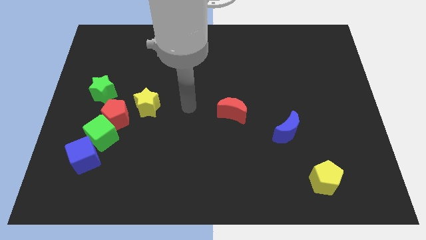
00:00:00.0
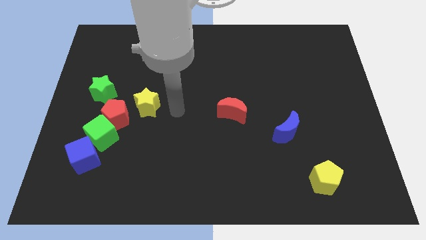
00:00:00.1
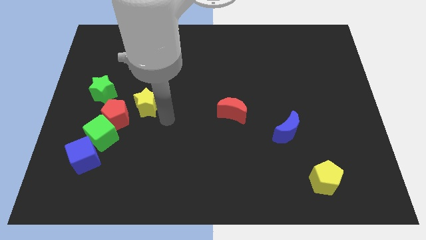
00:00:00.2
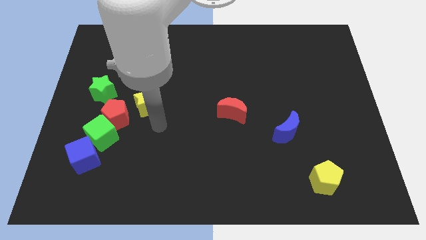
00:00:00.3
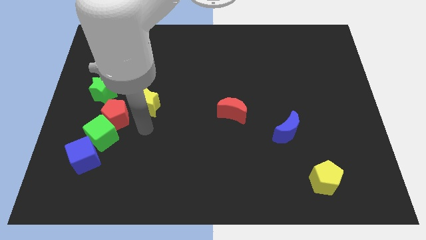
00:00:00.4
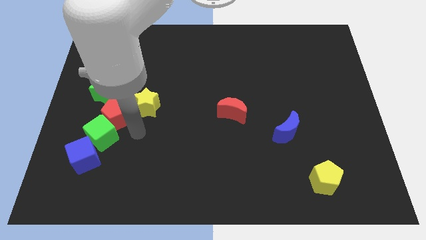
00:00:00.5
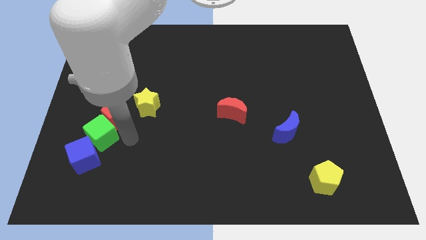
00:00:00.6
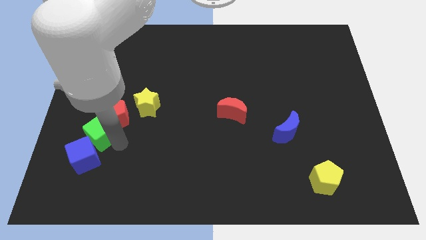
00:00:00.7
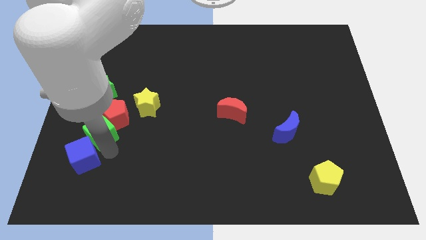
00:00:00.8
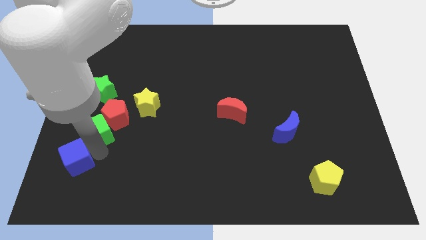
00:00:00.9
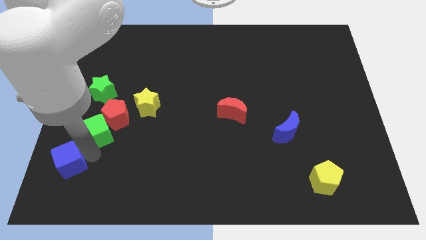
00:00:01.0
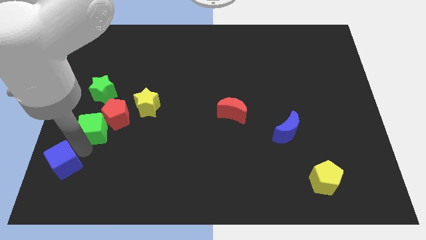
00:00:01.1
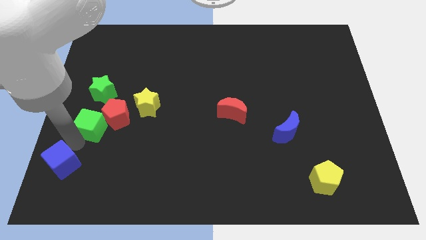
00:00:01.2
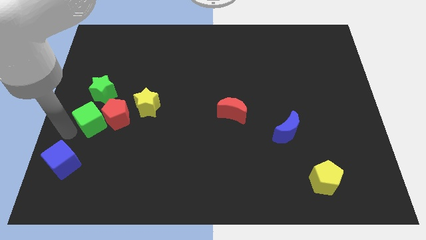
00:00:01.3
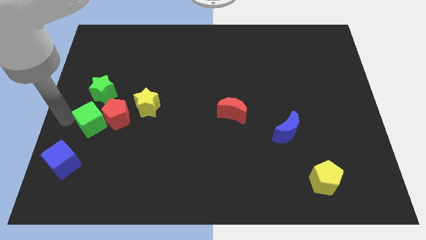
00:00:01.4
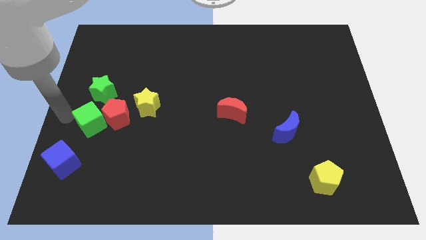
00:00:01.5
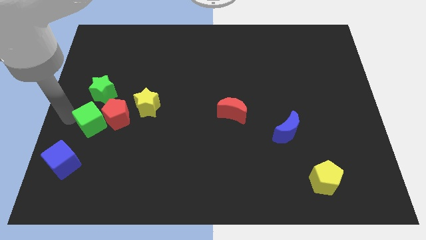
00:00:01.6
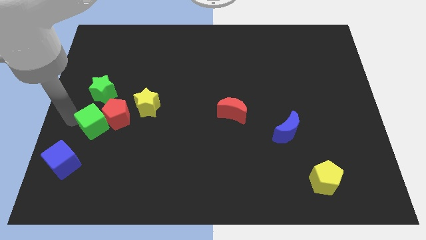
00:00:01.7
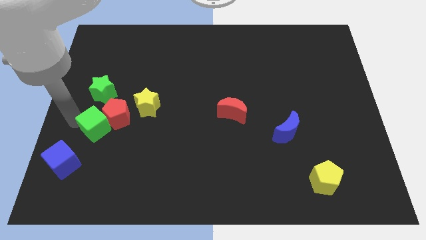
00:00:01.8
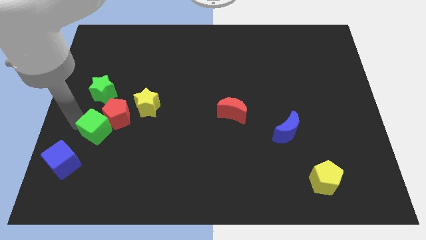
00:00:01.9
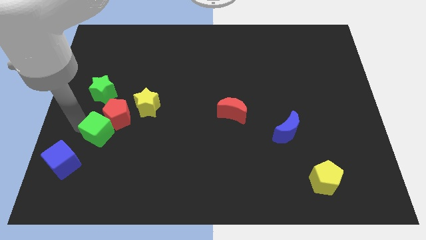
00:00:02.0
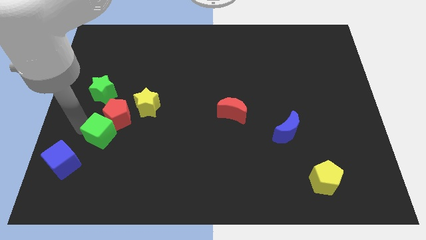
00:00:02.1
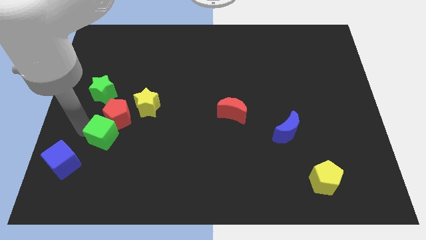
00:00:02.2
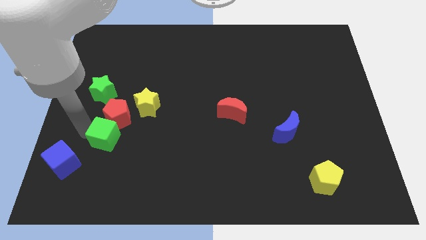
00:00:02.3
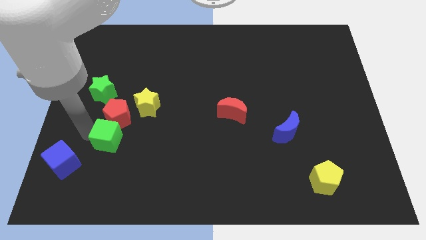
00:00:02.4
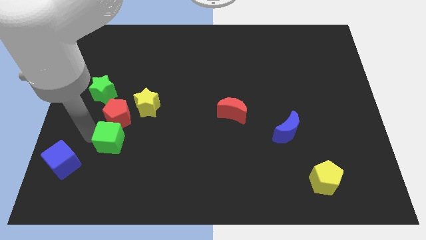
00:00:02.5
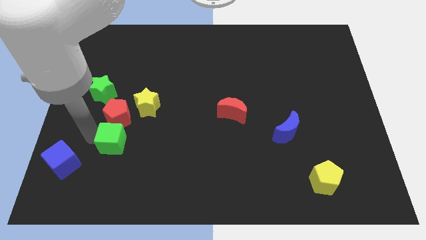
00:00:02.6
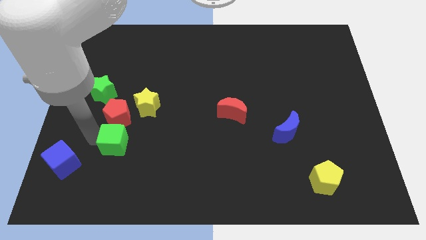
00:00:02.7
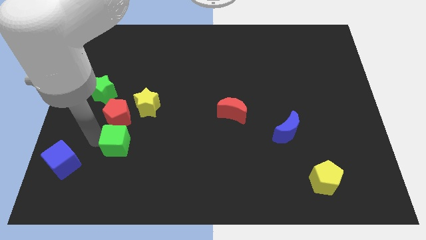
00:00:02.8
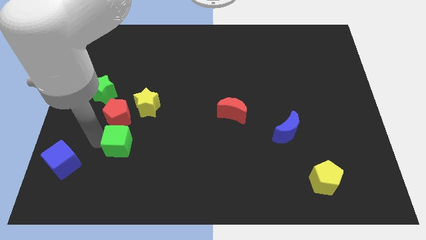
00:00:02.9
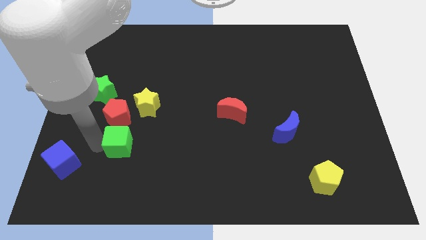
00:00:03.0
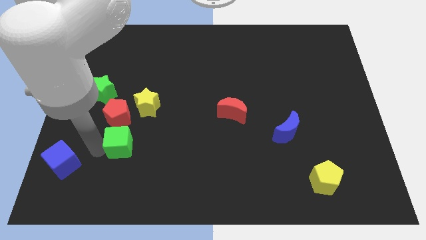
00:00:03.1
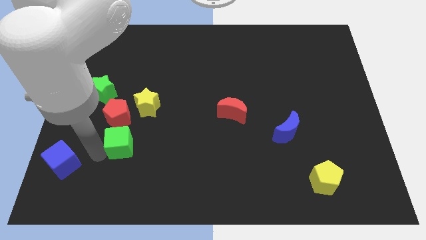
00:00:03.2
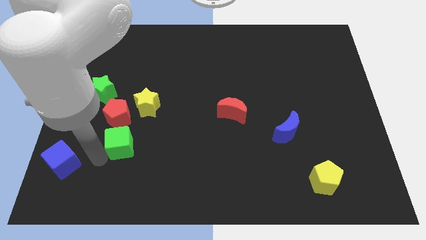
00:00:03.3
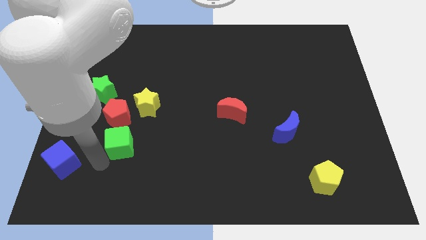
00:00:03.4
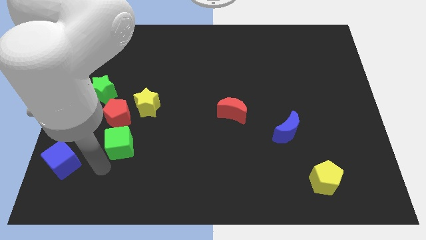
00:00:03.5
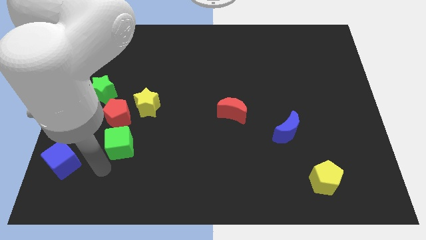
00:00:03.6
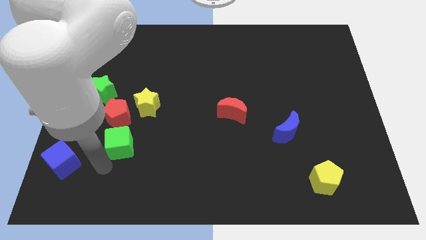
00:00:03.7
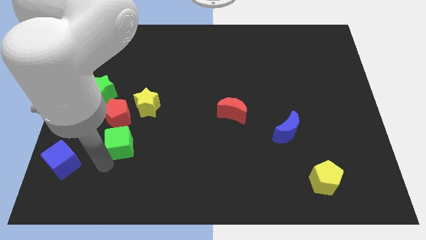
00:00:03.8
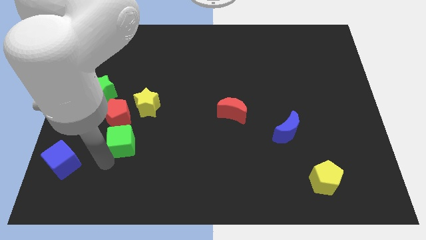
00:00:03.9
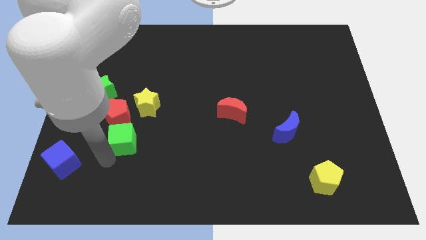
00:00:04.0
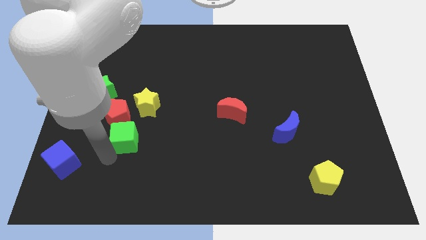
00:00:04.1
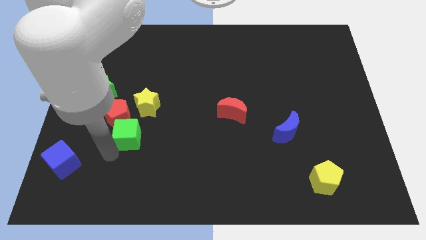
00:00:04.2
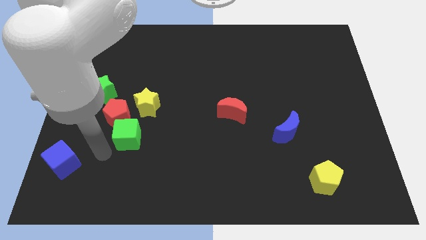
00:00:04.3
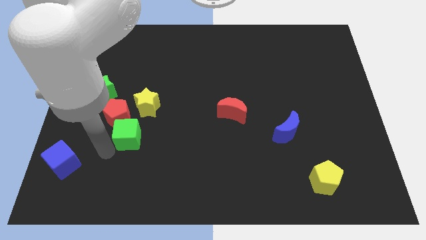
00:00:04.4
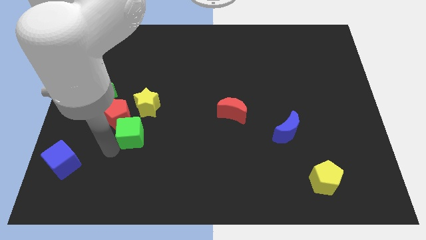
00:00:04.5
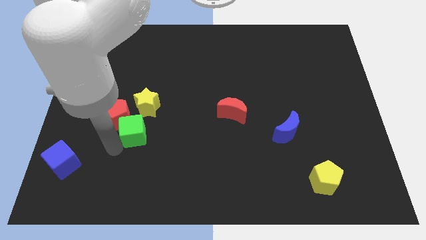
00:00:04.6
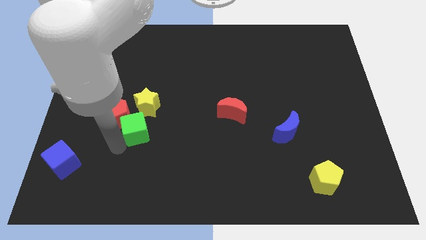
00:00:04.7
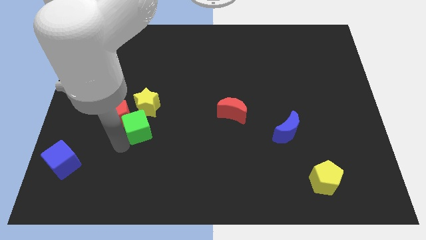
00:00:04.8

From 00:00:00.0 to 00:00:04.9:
move the green cube away from the red pentagon and blue cube

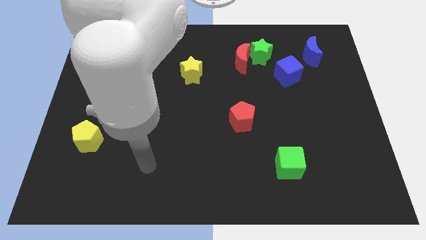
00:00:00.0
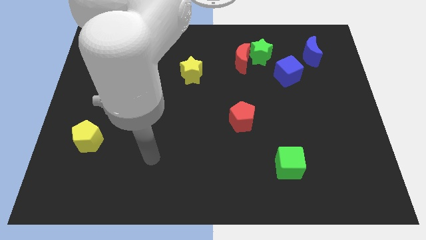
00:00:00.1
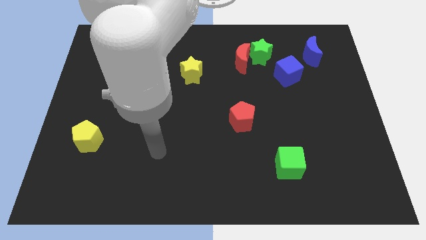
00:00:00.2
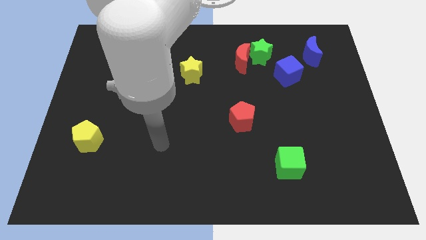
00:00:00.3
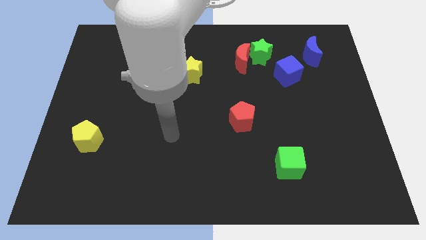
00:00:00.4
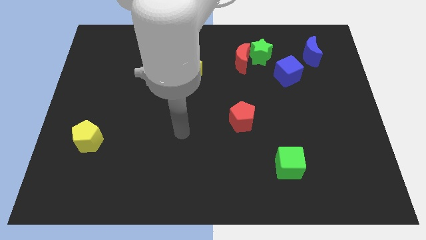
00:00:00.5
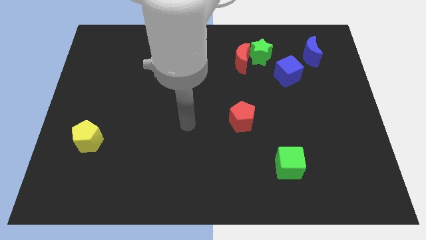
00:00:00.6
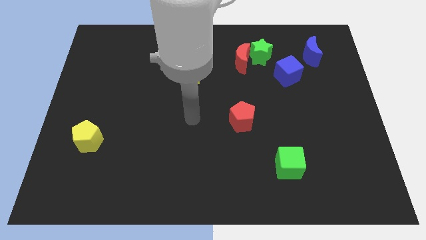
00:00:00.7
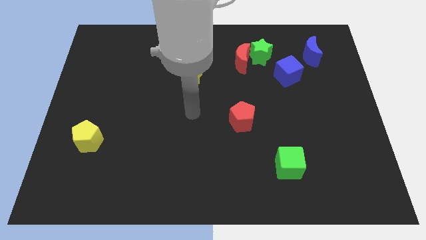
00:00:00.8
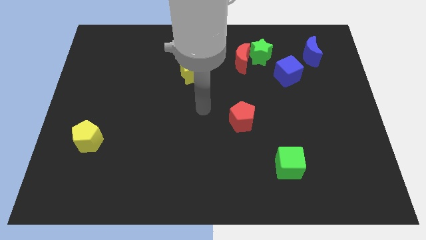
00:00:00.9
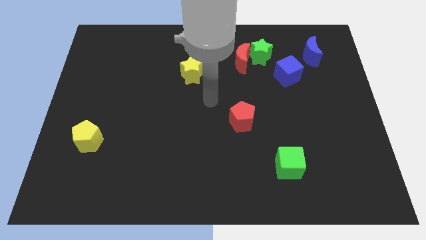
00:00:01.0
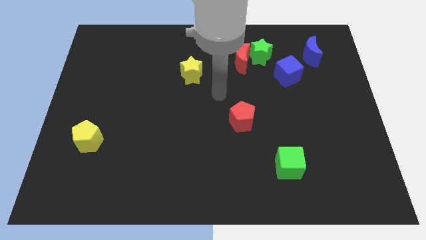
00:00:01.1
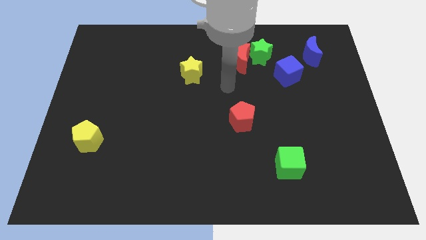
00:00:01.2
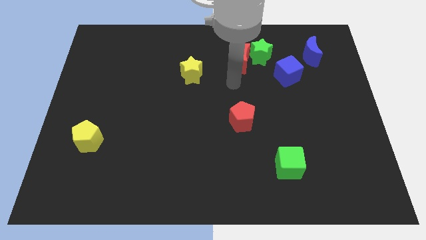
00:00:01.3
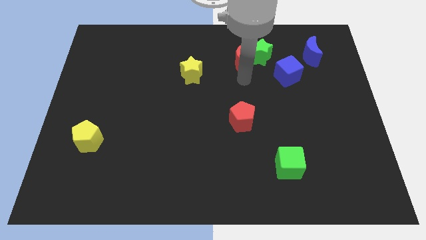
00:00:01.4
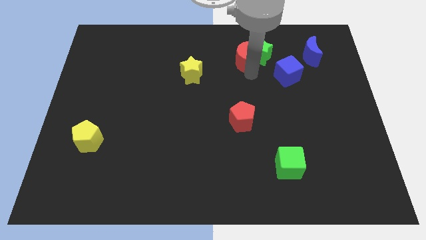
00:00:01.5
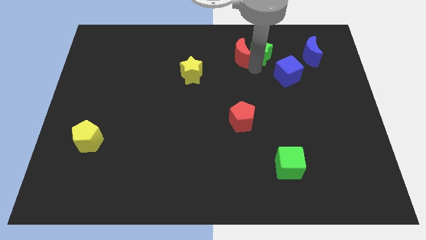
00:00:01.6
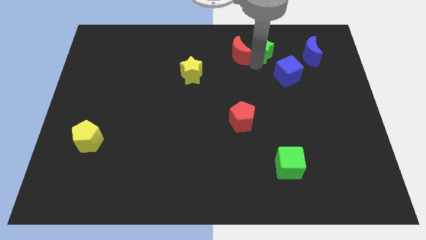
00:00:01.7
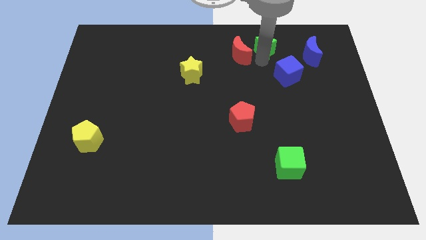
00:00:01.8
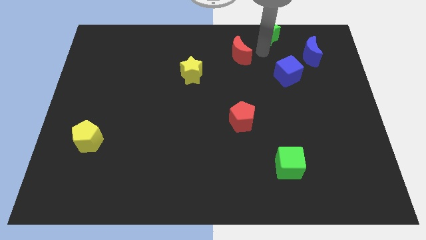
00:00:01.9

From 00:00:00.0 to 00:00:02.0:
pull the red moon apart from the green star

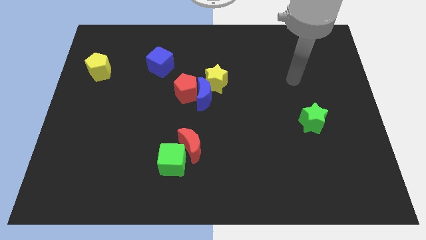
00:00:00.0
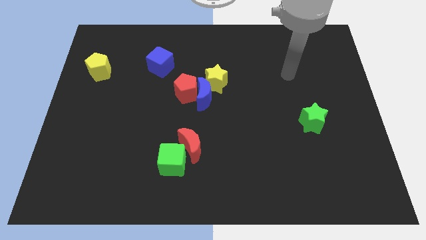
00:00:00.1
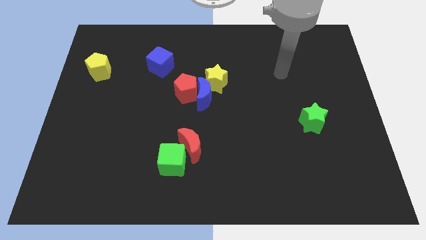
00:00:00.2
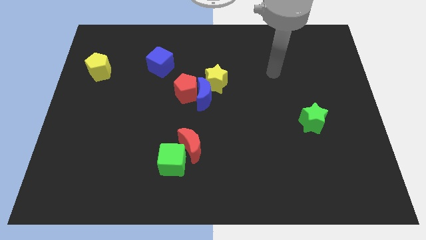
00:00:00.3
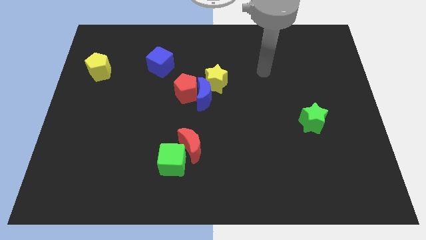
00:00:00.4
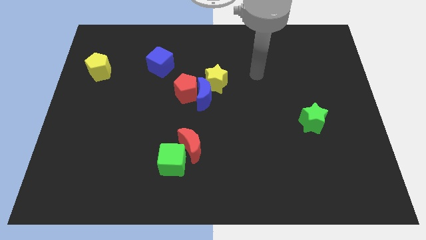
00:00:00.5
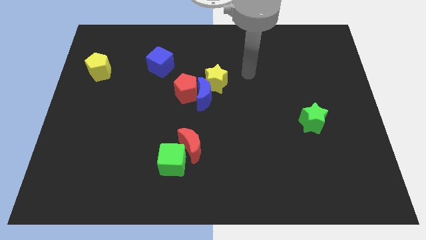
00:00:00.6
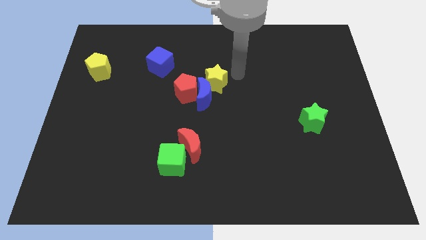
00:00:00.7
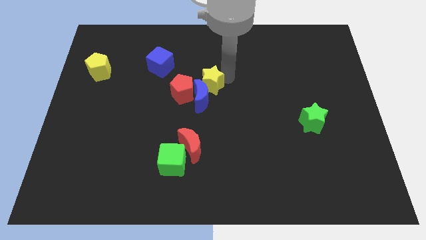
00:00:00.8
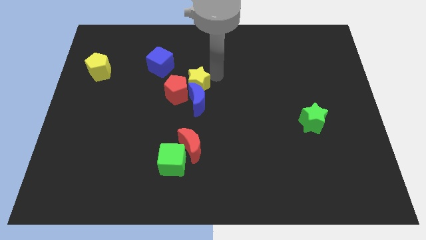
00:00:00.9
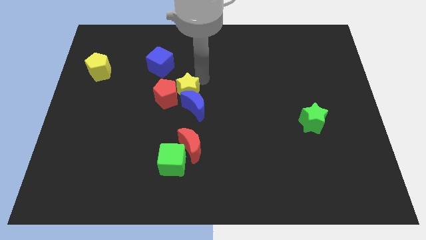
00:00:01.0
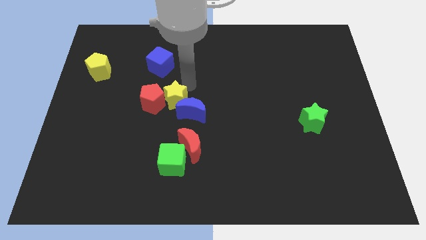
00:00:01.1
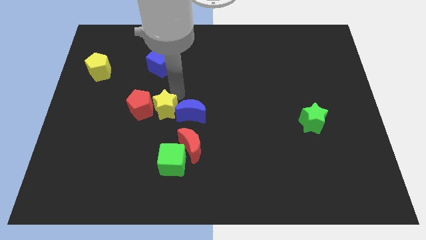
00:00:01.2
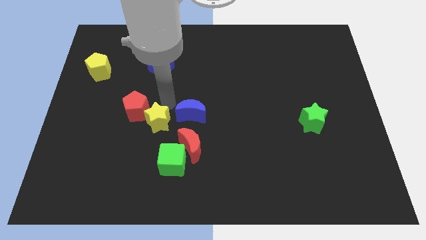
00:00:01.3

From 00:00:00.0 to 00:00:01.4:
move the blue moon away from the red pentagon and yellow star

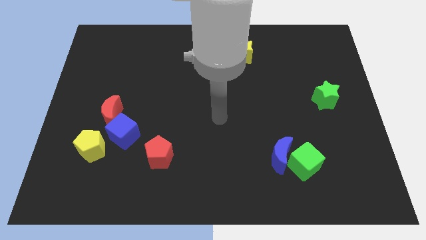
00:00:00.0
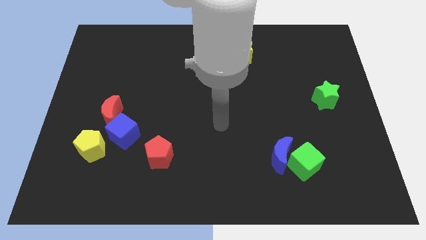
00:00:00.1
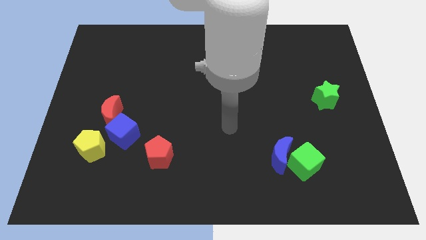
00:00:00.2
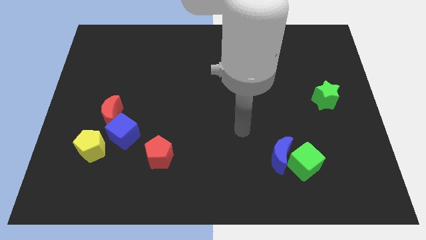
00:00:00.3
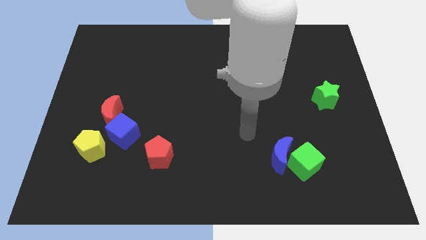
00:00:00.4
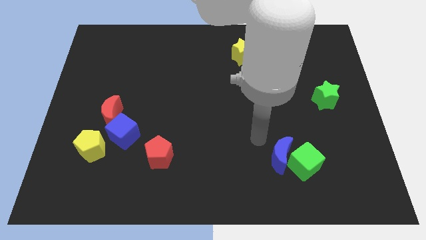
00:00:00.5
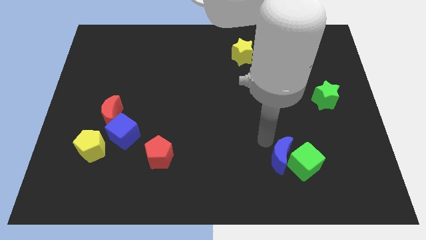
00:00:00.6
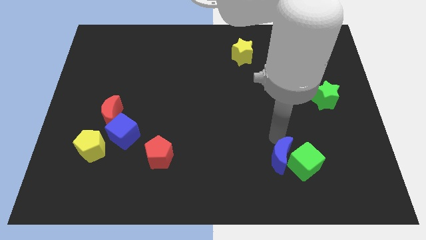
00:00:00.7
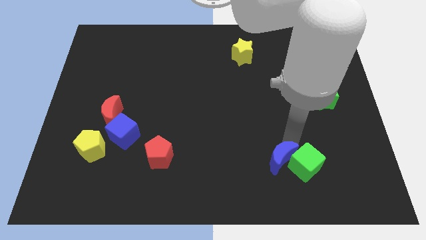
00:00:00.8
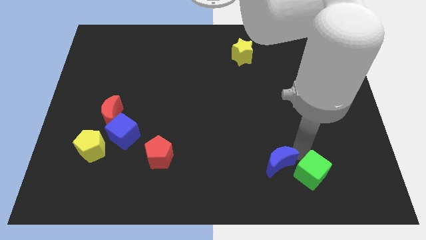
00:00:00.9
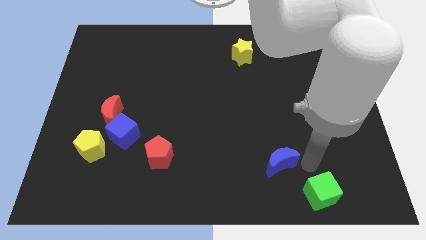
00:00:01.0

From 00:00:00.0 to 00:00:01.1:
pull the blue moon apart from the green cube
